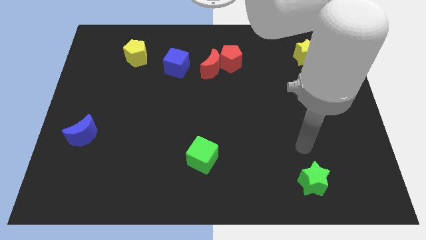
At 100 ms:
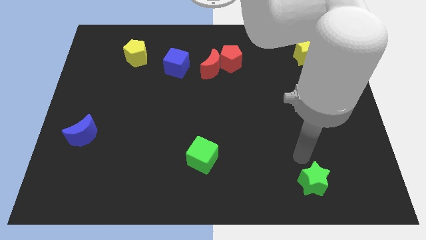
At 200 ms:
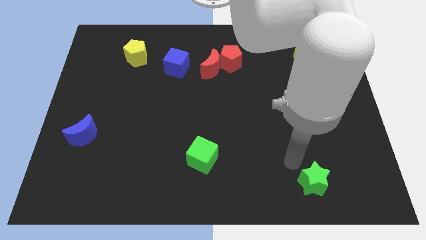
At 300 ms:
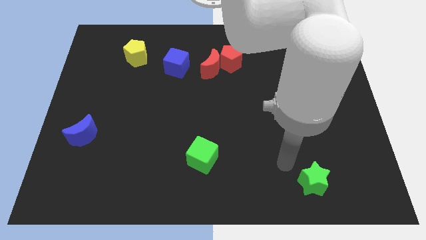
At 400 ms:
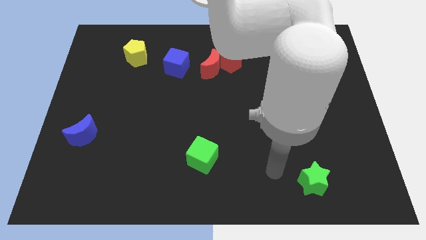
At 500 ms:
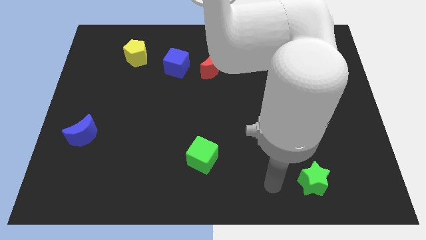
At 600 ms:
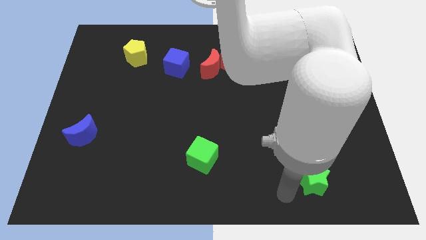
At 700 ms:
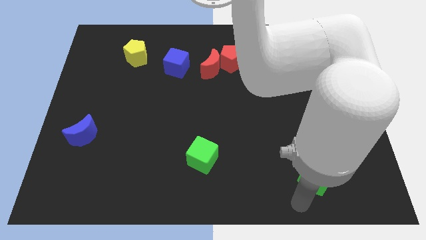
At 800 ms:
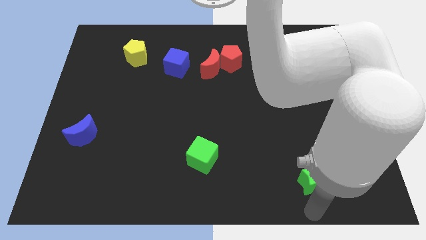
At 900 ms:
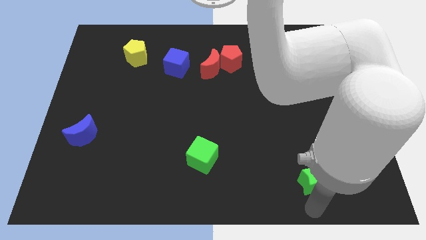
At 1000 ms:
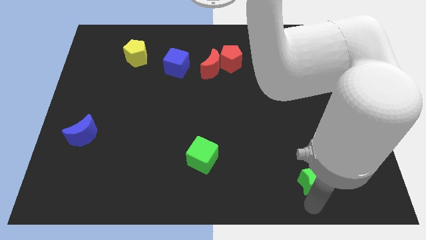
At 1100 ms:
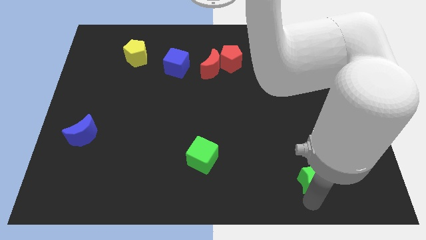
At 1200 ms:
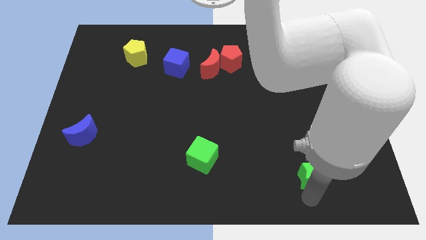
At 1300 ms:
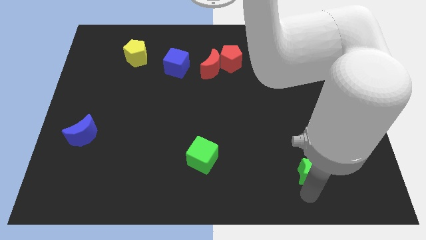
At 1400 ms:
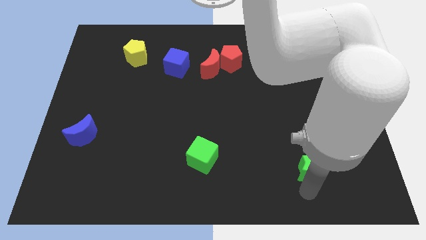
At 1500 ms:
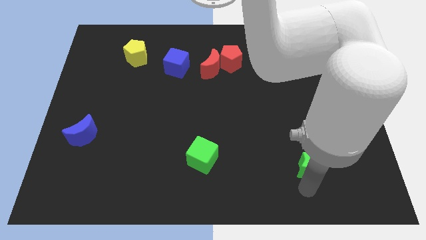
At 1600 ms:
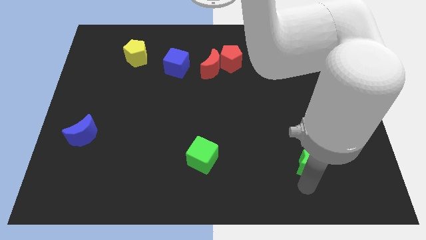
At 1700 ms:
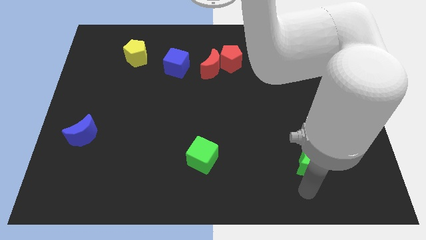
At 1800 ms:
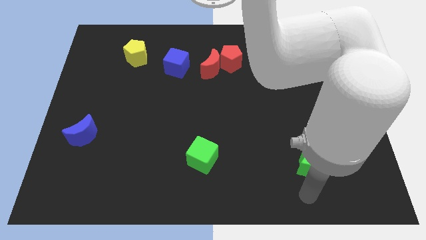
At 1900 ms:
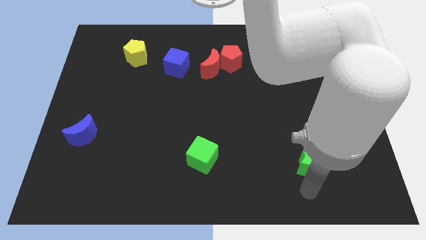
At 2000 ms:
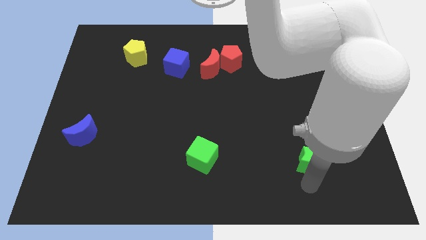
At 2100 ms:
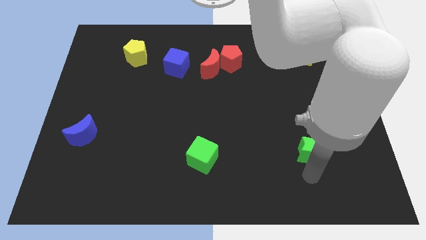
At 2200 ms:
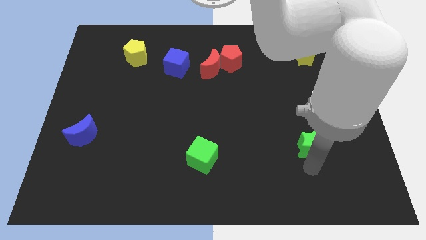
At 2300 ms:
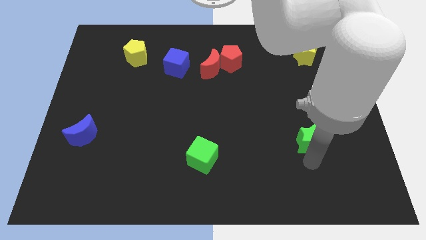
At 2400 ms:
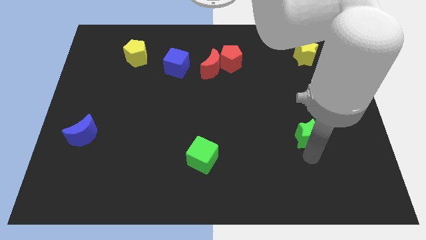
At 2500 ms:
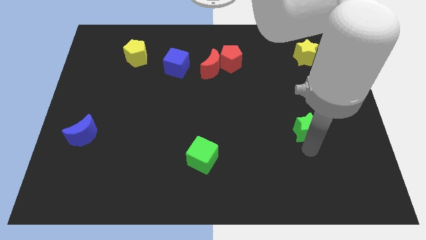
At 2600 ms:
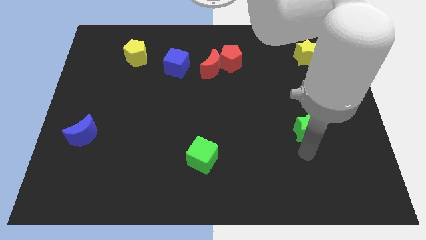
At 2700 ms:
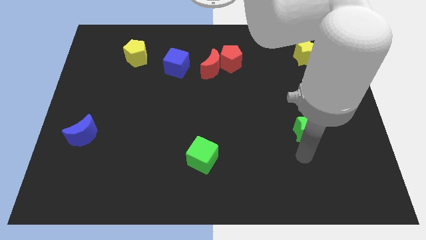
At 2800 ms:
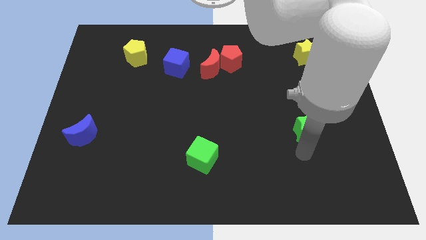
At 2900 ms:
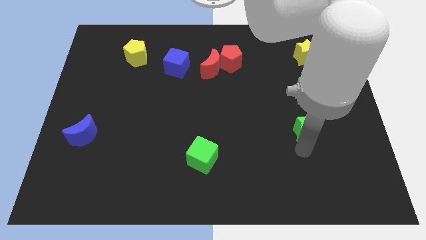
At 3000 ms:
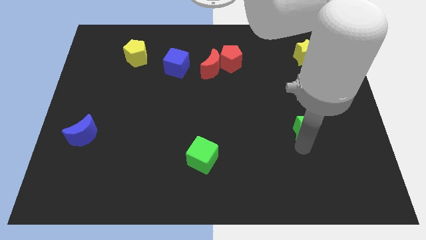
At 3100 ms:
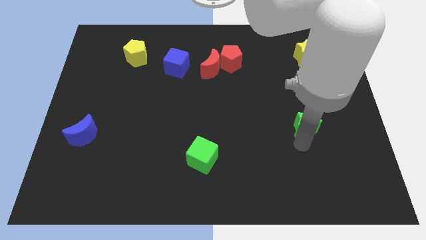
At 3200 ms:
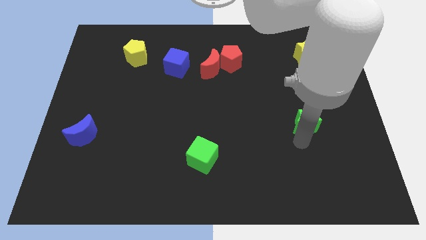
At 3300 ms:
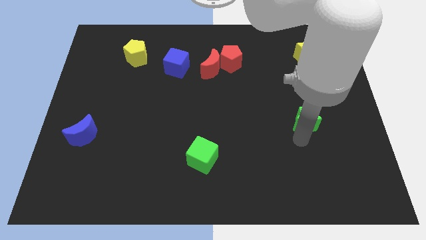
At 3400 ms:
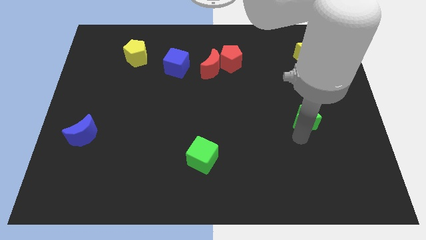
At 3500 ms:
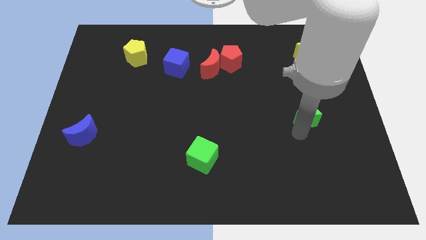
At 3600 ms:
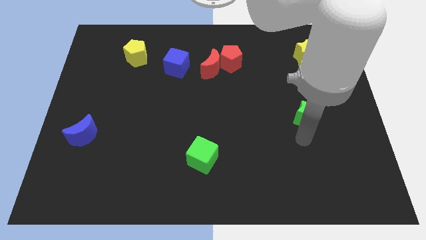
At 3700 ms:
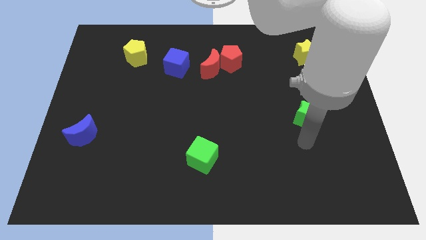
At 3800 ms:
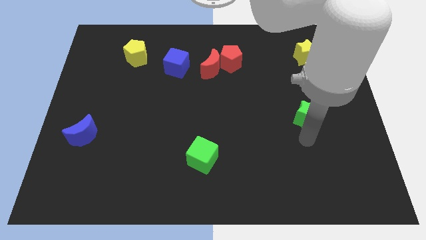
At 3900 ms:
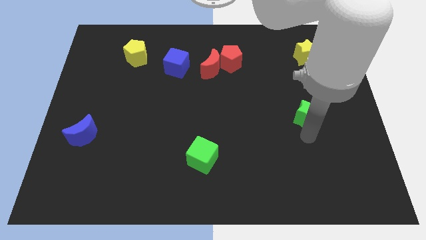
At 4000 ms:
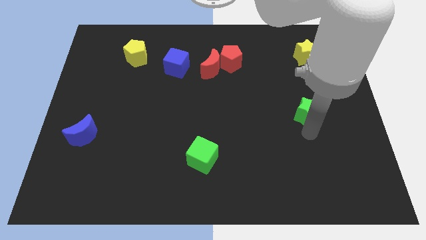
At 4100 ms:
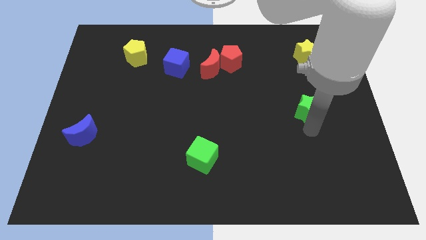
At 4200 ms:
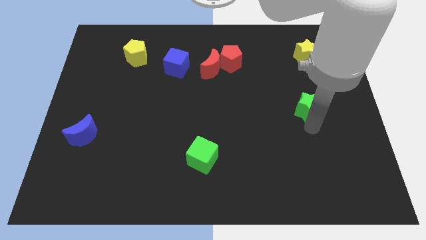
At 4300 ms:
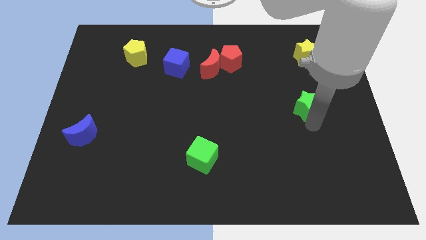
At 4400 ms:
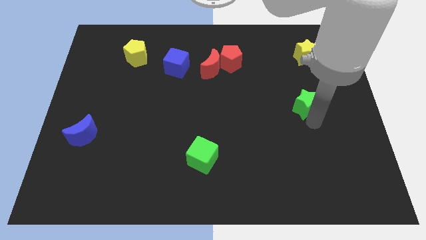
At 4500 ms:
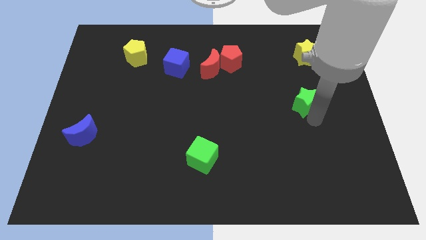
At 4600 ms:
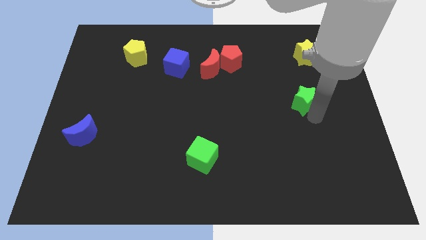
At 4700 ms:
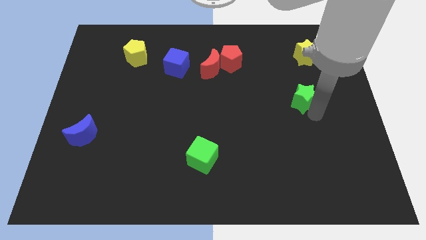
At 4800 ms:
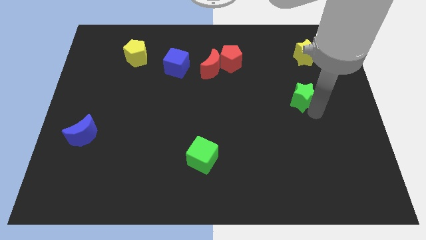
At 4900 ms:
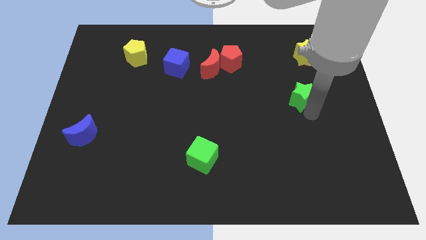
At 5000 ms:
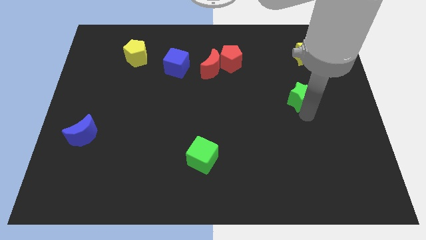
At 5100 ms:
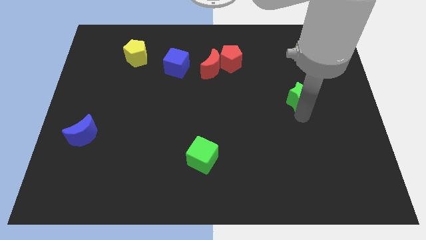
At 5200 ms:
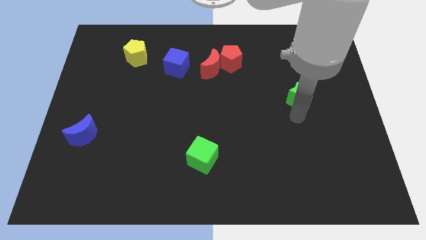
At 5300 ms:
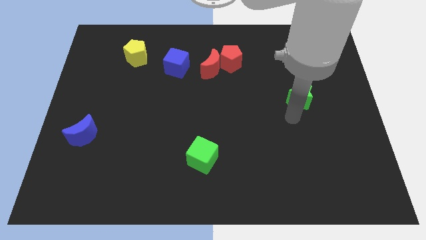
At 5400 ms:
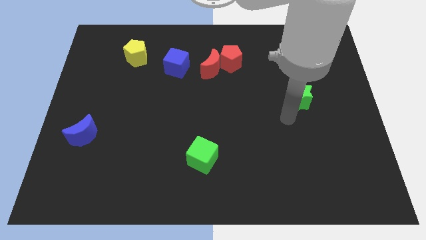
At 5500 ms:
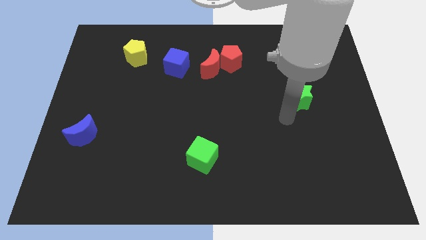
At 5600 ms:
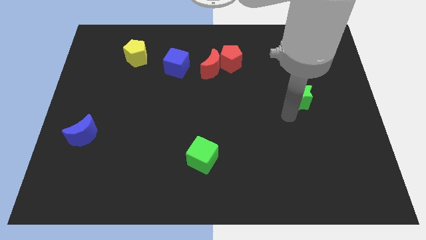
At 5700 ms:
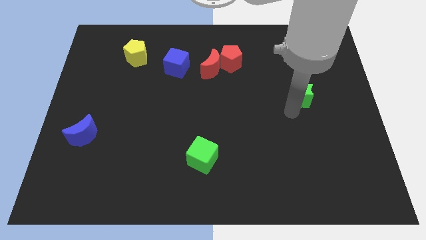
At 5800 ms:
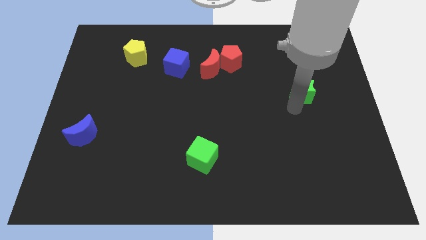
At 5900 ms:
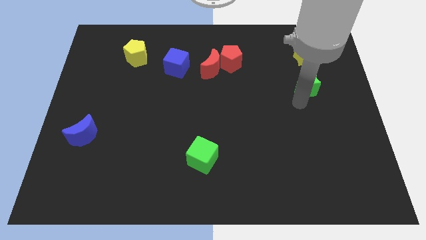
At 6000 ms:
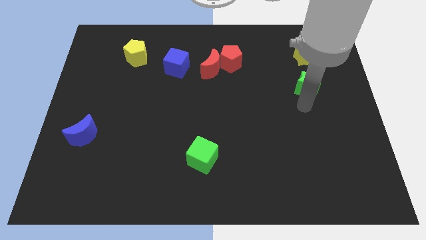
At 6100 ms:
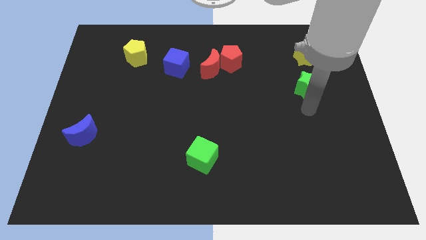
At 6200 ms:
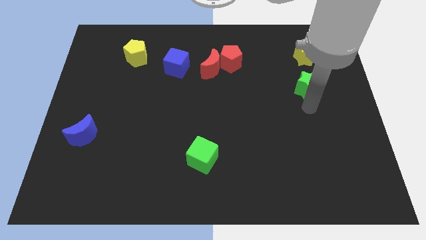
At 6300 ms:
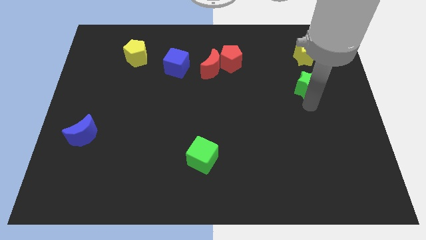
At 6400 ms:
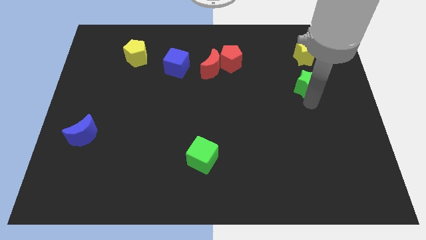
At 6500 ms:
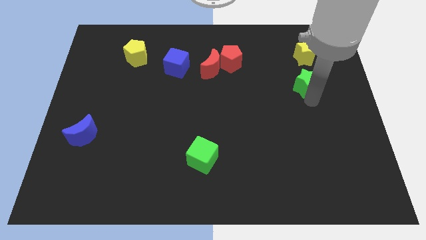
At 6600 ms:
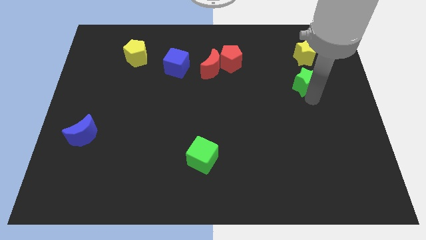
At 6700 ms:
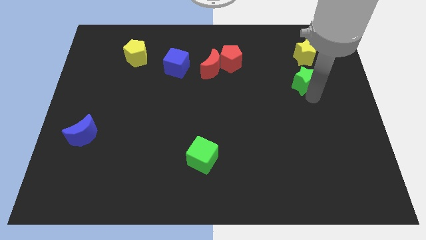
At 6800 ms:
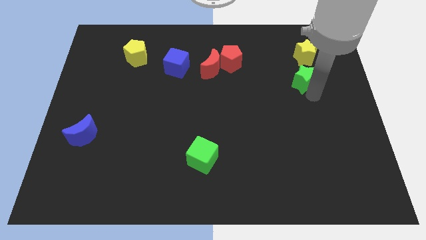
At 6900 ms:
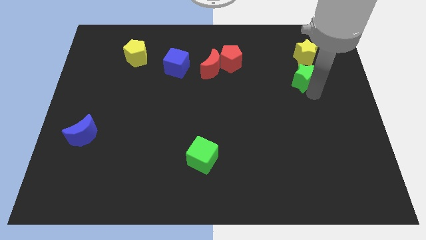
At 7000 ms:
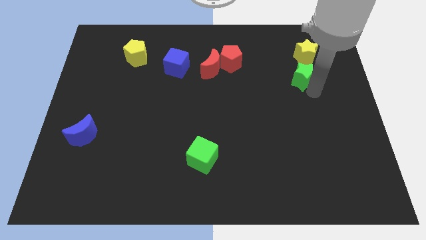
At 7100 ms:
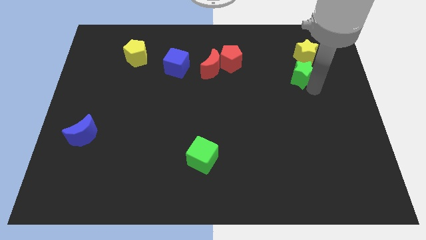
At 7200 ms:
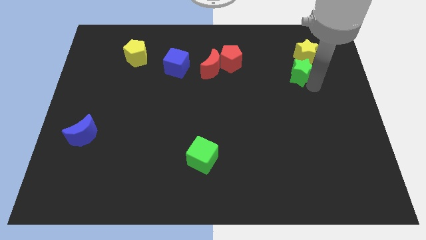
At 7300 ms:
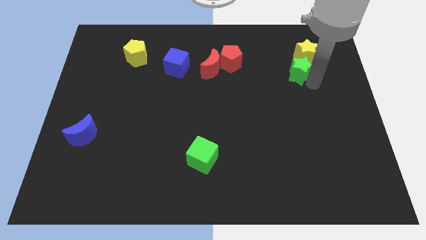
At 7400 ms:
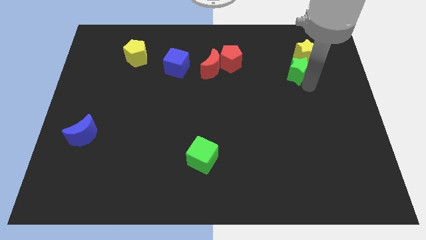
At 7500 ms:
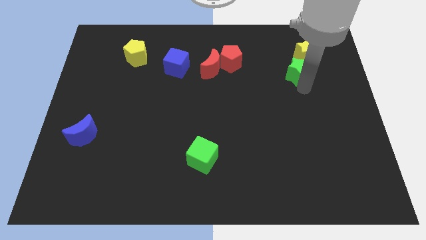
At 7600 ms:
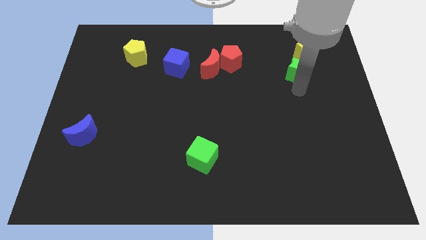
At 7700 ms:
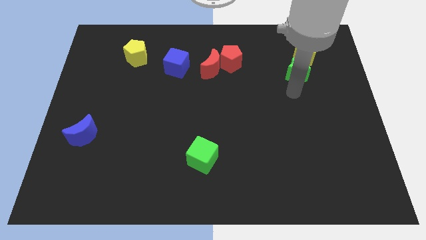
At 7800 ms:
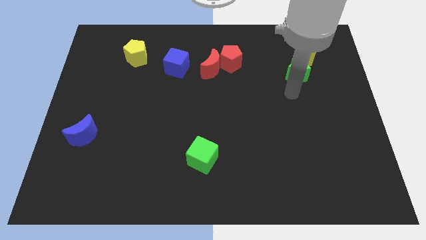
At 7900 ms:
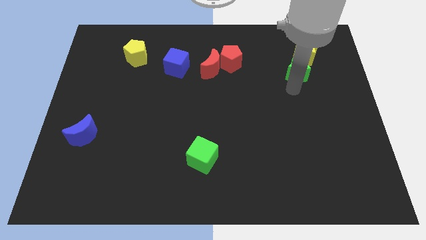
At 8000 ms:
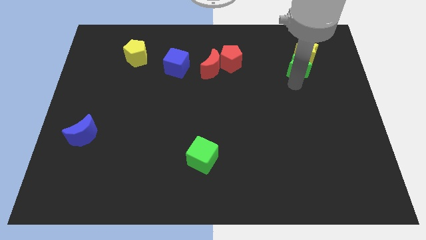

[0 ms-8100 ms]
push the green star towards the yellow star
